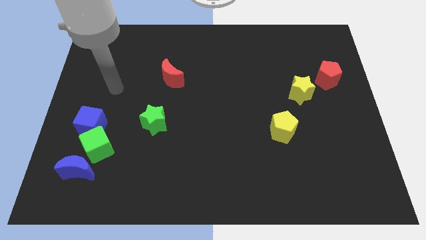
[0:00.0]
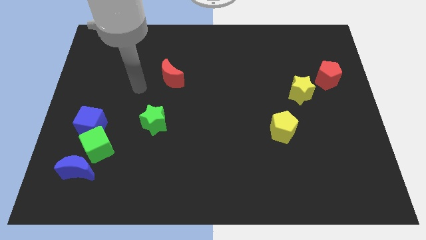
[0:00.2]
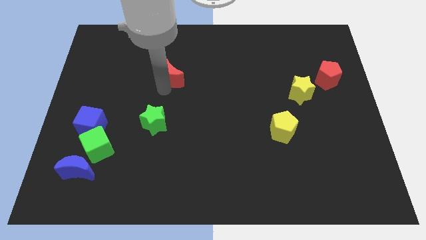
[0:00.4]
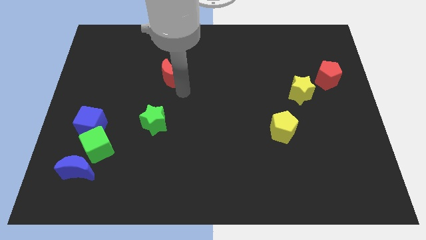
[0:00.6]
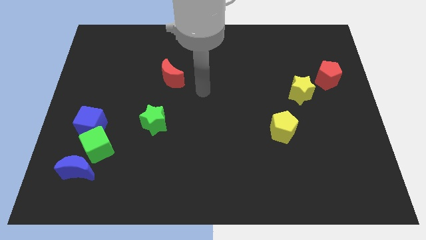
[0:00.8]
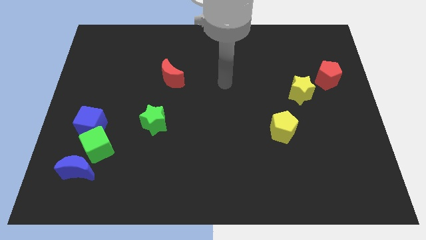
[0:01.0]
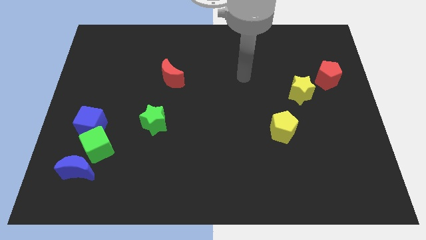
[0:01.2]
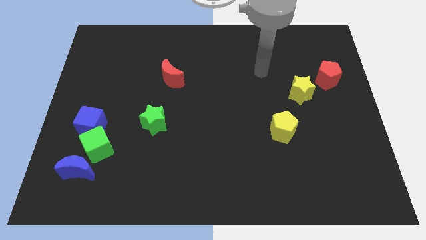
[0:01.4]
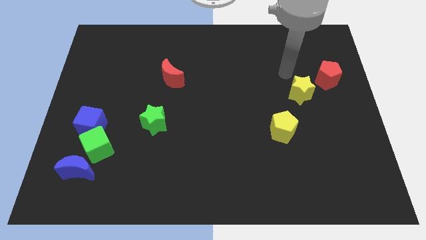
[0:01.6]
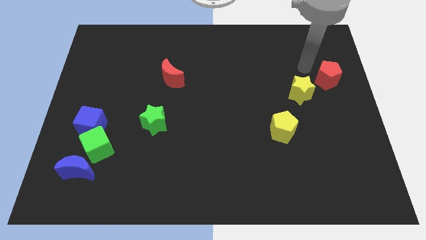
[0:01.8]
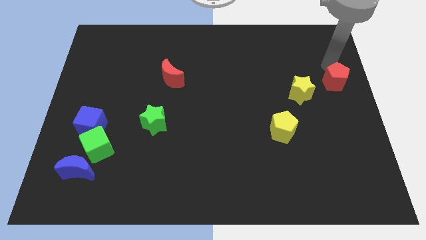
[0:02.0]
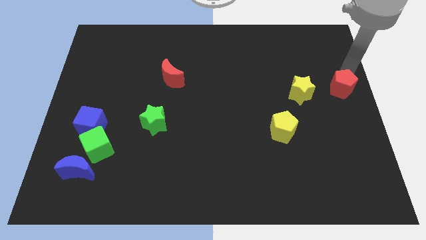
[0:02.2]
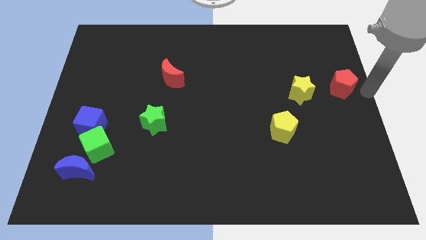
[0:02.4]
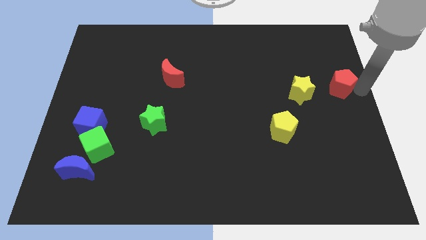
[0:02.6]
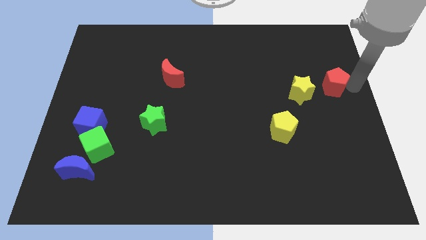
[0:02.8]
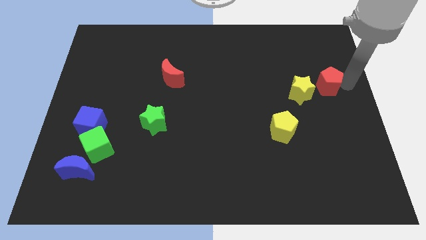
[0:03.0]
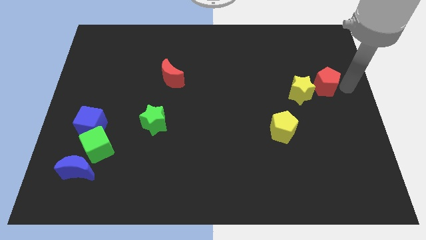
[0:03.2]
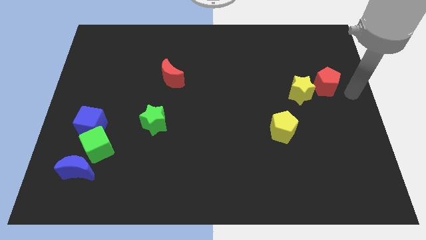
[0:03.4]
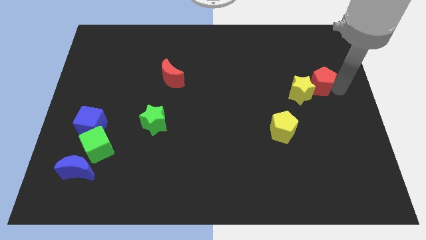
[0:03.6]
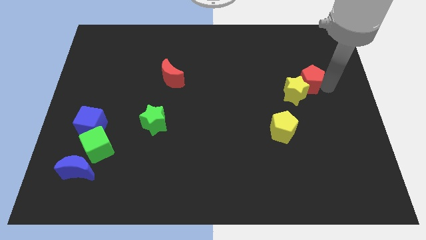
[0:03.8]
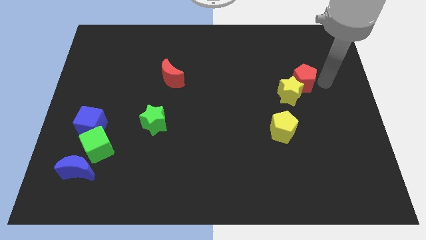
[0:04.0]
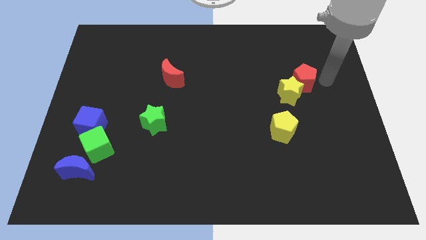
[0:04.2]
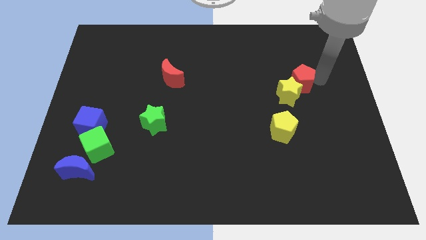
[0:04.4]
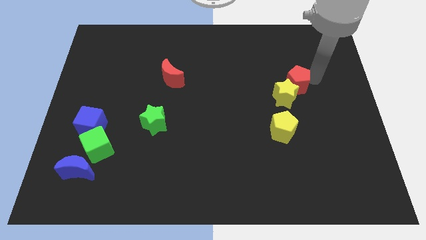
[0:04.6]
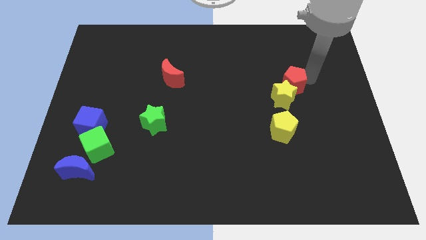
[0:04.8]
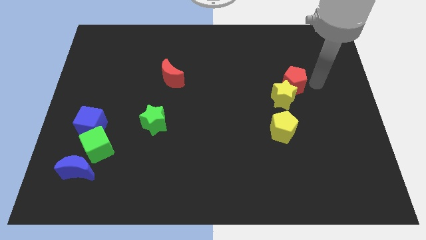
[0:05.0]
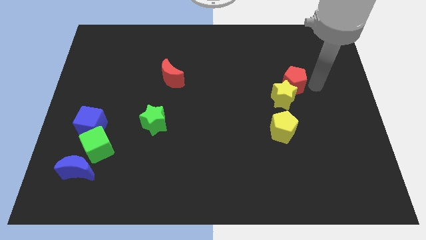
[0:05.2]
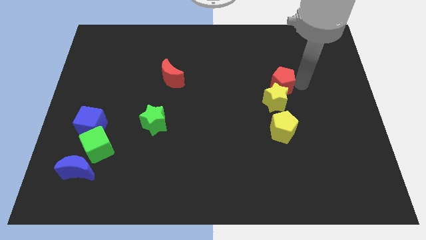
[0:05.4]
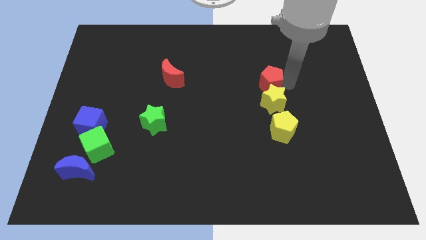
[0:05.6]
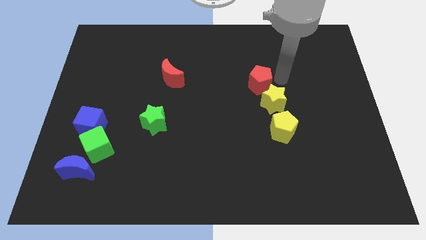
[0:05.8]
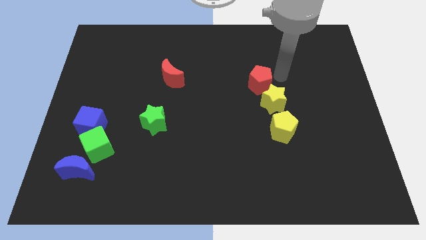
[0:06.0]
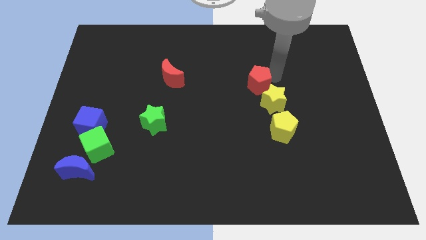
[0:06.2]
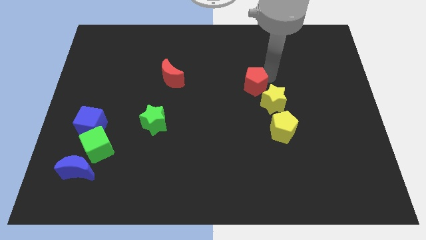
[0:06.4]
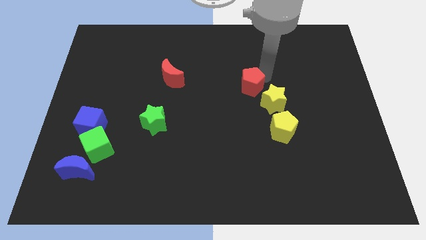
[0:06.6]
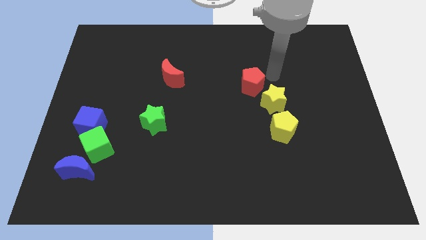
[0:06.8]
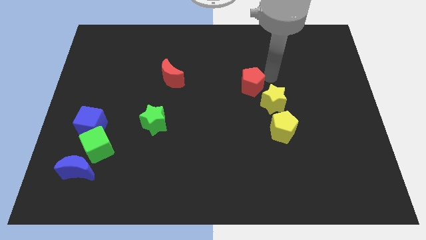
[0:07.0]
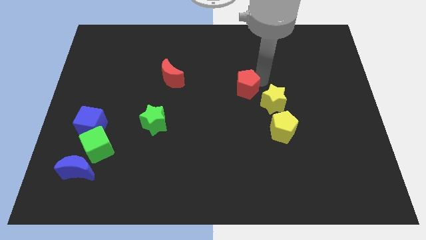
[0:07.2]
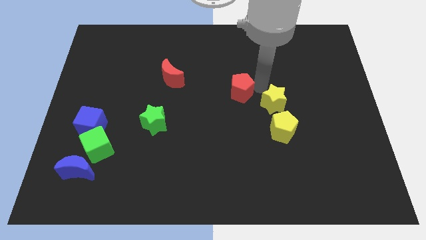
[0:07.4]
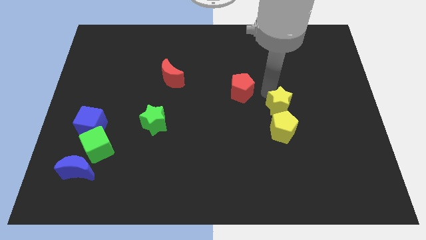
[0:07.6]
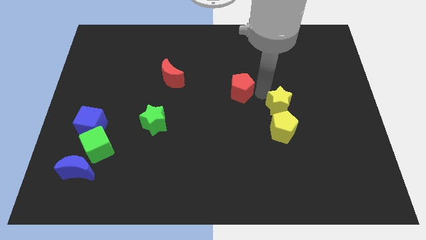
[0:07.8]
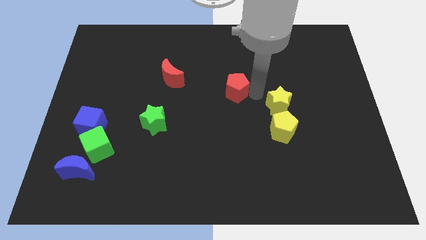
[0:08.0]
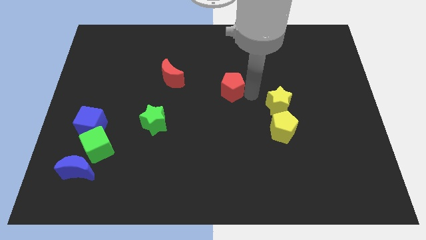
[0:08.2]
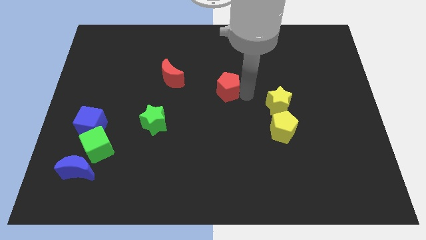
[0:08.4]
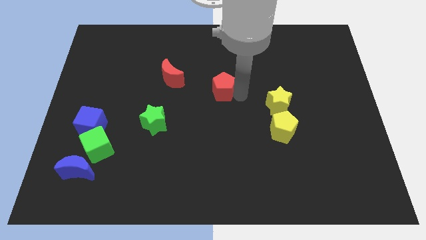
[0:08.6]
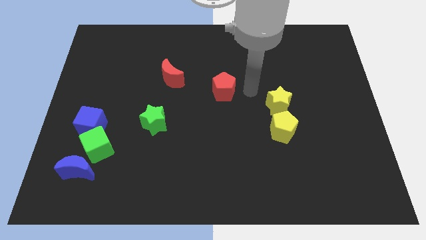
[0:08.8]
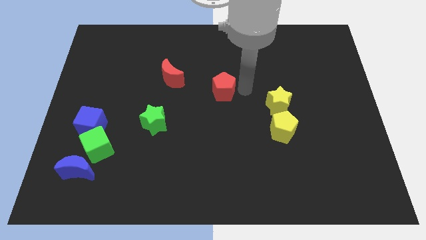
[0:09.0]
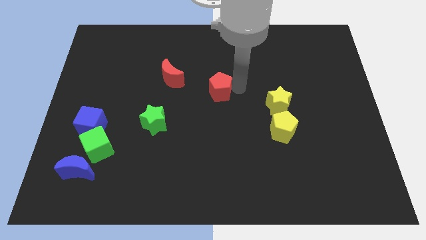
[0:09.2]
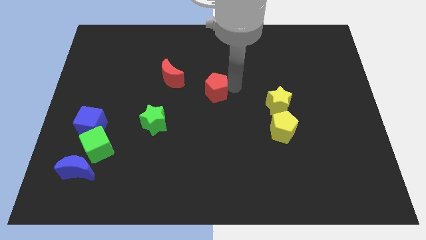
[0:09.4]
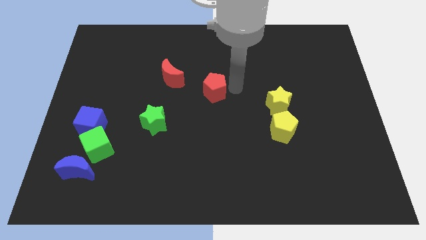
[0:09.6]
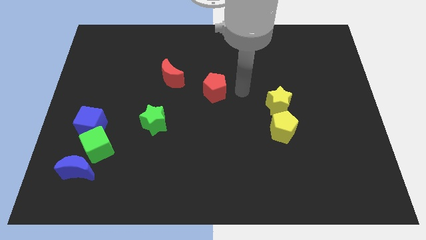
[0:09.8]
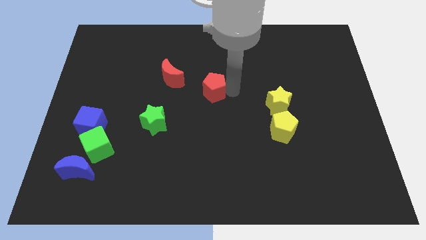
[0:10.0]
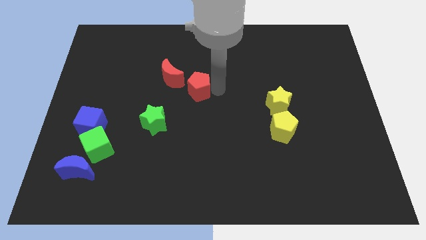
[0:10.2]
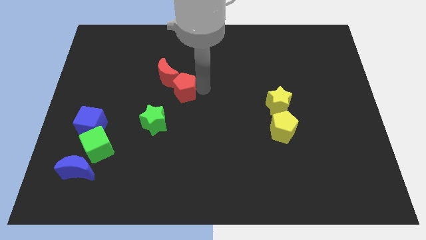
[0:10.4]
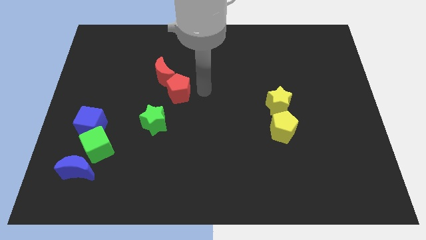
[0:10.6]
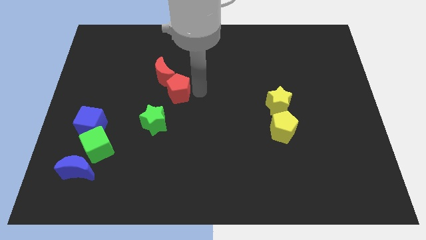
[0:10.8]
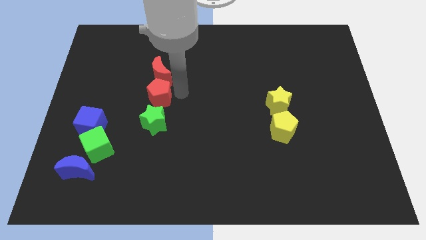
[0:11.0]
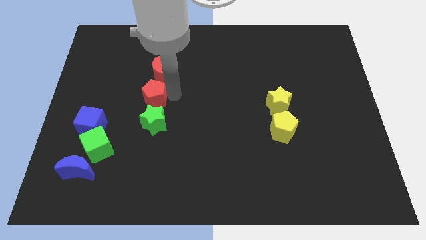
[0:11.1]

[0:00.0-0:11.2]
move the red pentagon diagonally down and to the left of the red moon

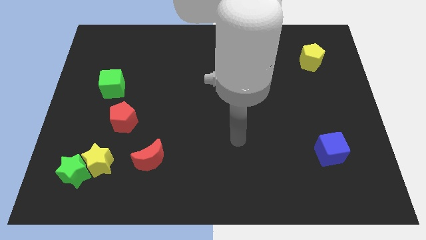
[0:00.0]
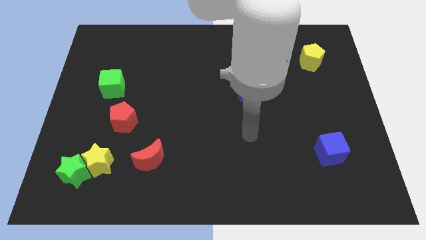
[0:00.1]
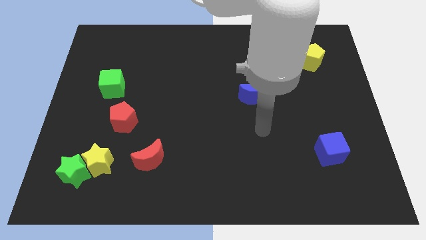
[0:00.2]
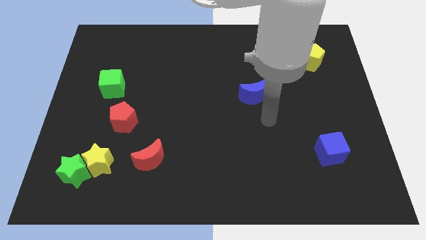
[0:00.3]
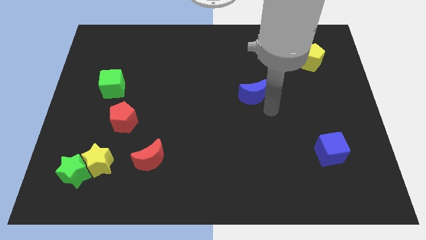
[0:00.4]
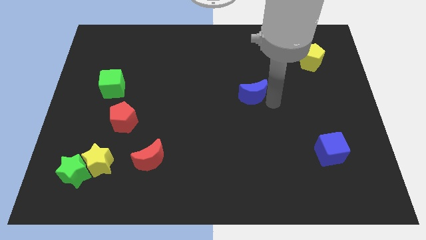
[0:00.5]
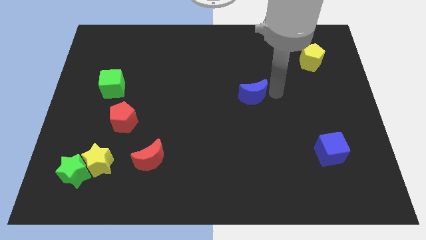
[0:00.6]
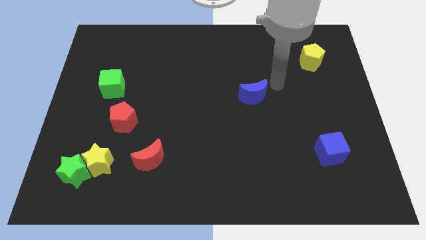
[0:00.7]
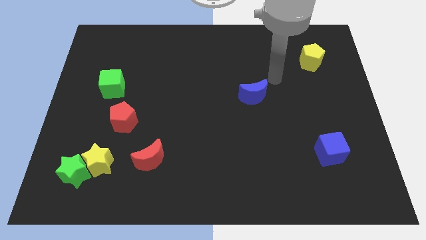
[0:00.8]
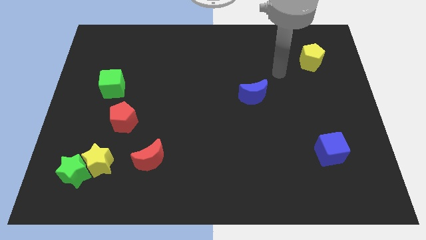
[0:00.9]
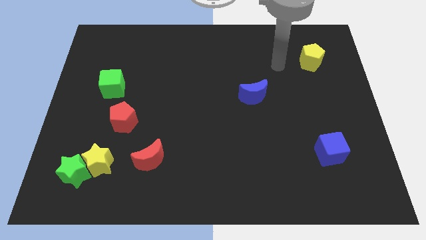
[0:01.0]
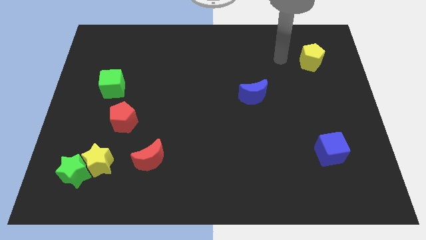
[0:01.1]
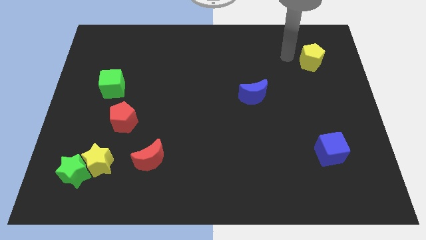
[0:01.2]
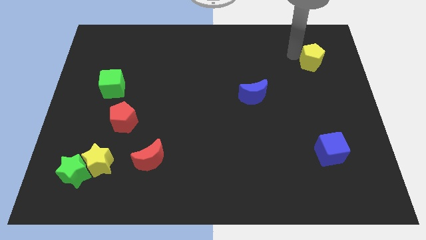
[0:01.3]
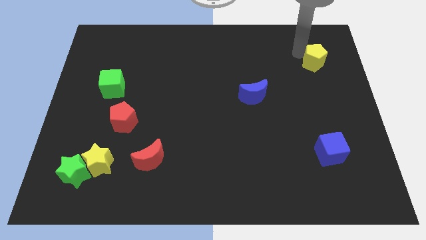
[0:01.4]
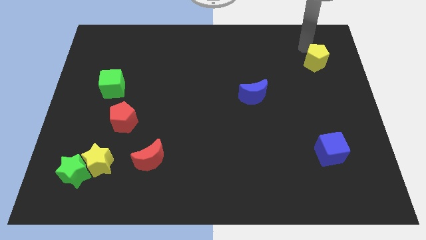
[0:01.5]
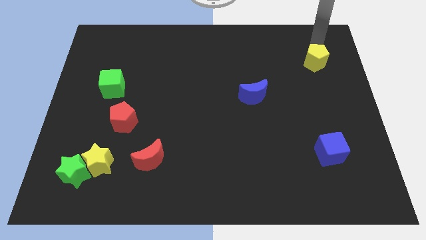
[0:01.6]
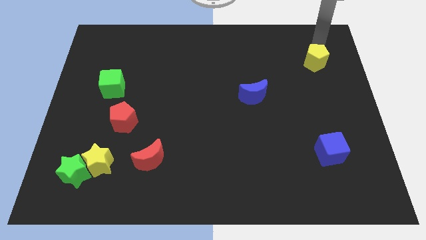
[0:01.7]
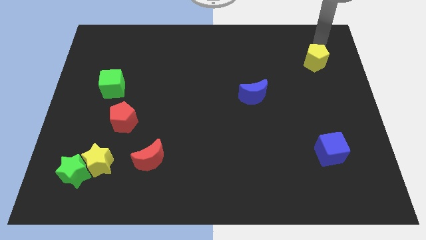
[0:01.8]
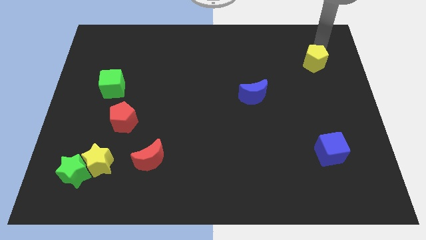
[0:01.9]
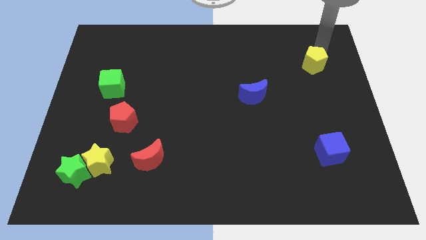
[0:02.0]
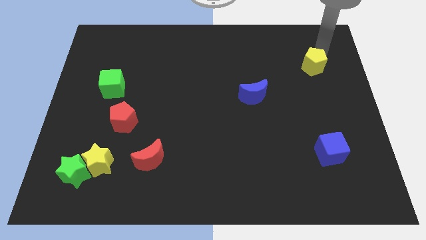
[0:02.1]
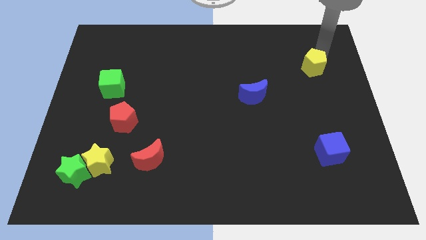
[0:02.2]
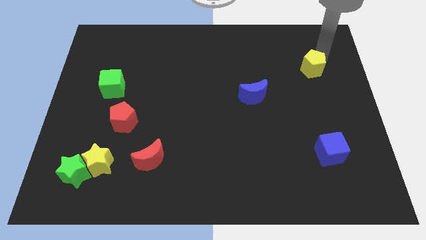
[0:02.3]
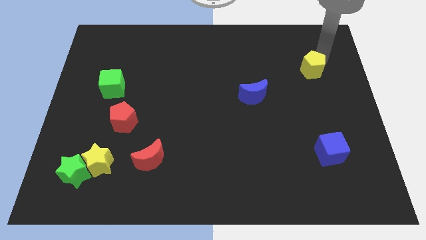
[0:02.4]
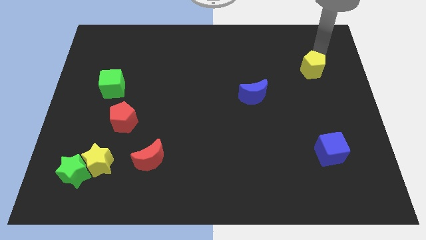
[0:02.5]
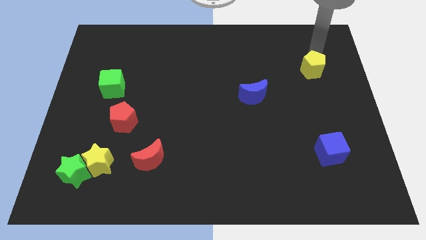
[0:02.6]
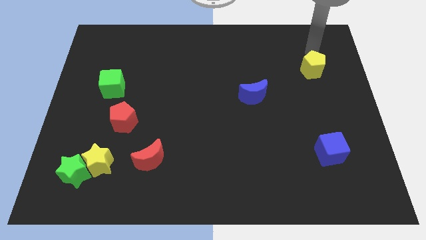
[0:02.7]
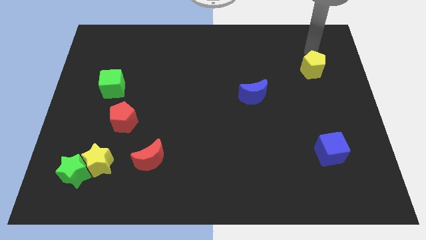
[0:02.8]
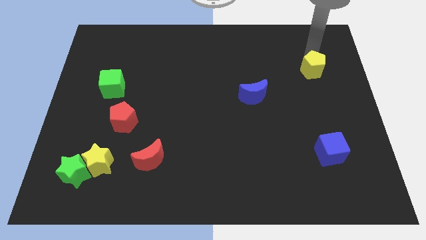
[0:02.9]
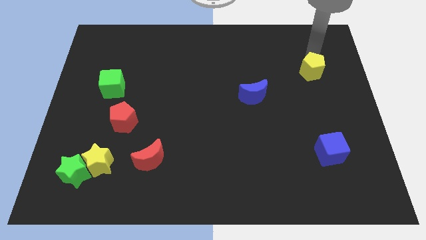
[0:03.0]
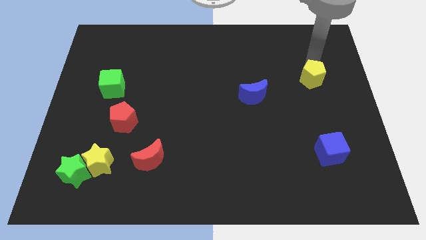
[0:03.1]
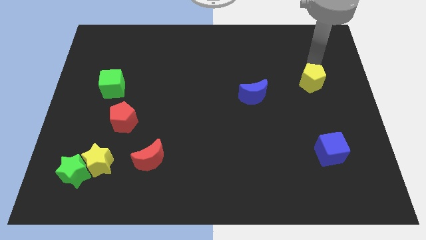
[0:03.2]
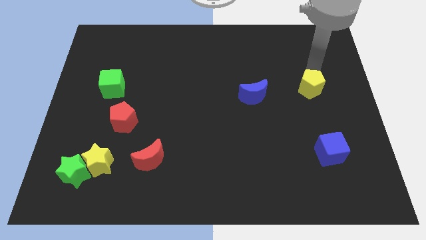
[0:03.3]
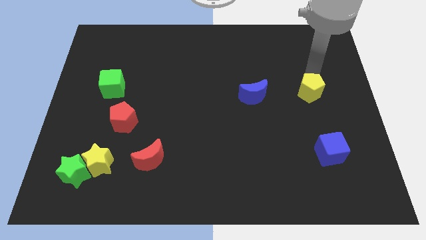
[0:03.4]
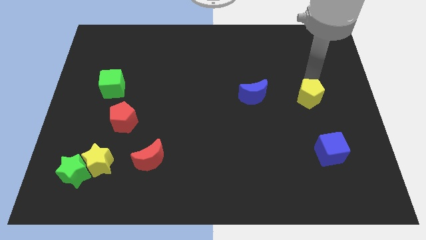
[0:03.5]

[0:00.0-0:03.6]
move the yellow pentagon to the top side of the blue cube
